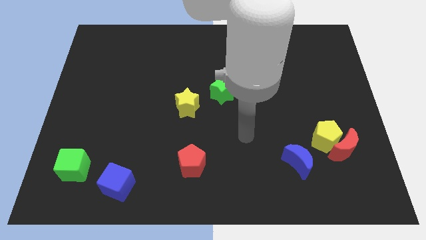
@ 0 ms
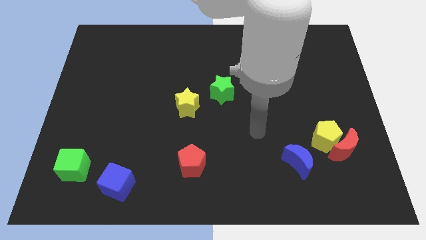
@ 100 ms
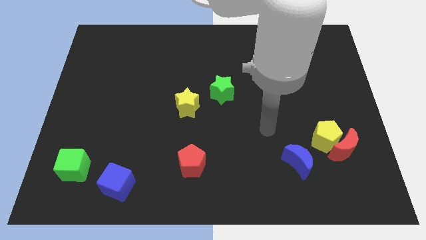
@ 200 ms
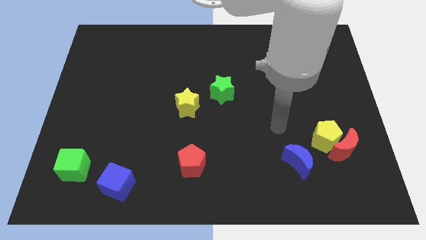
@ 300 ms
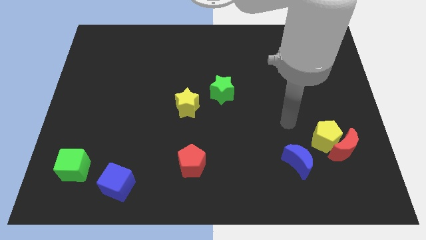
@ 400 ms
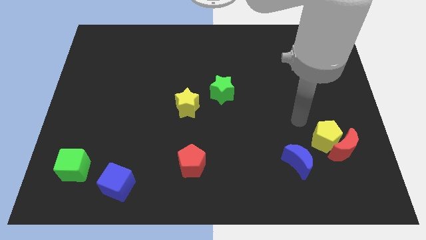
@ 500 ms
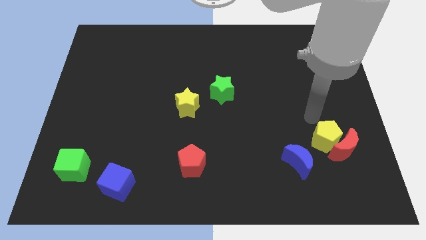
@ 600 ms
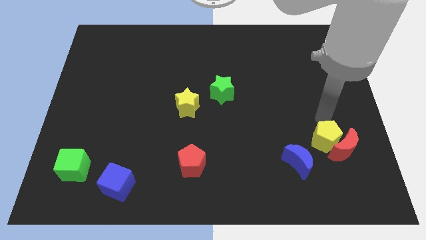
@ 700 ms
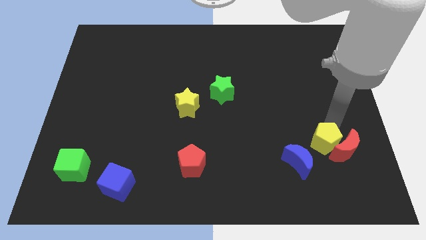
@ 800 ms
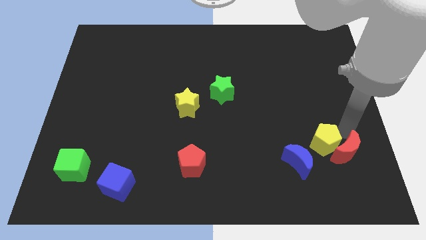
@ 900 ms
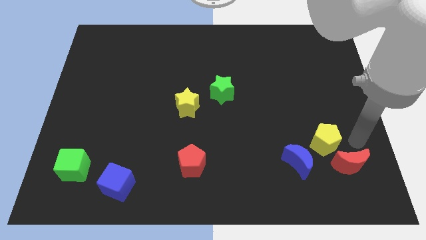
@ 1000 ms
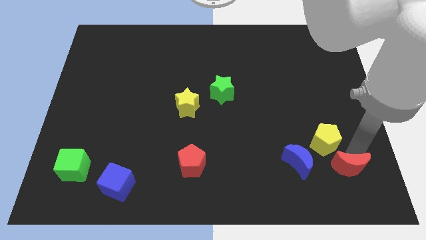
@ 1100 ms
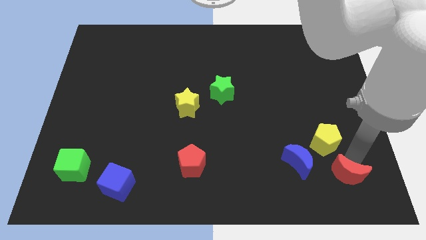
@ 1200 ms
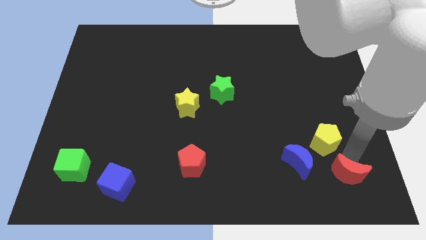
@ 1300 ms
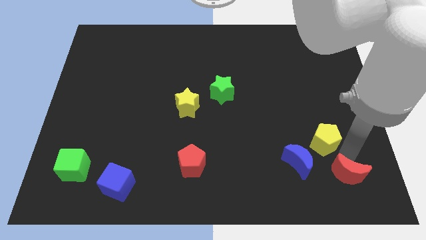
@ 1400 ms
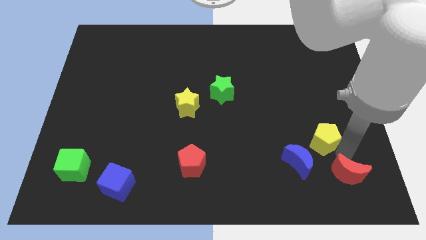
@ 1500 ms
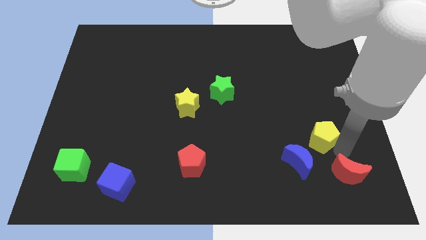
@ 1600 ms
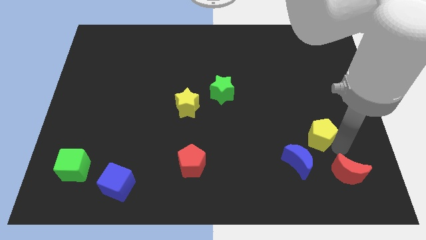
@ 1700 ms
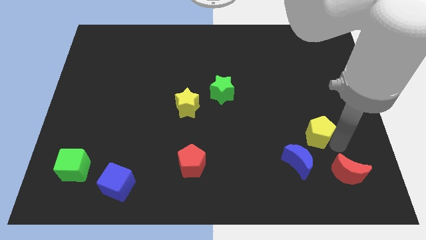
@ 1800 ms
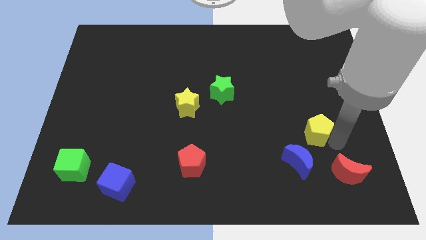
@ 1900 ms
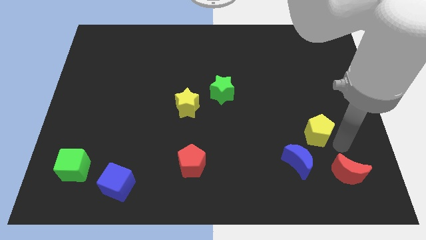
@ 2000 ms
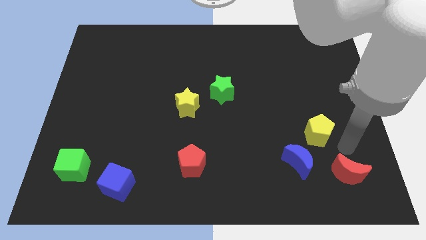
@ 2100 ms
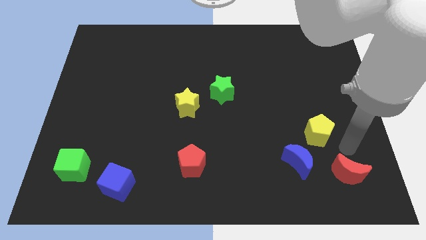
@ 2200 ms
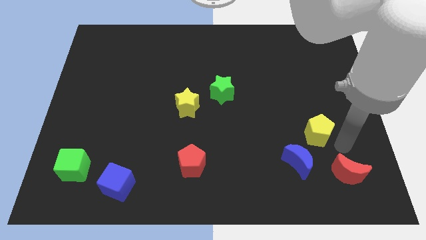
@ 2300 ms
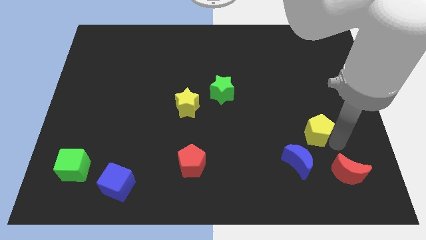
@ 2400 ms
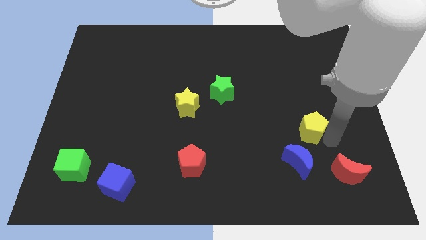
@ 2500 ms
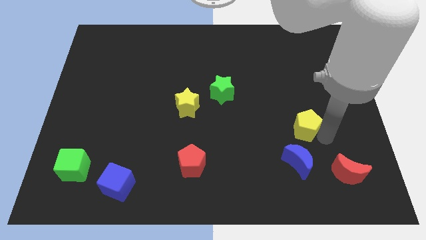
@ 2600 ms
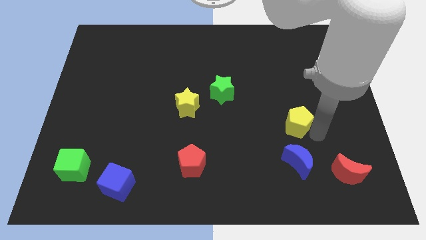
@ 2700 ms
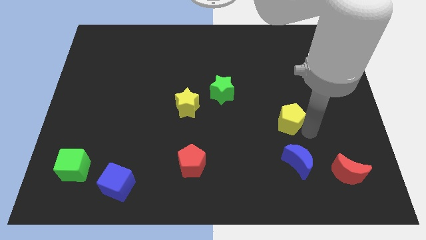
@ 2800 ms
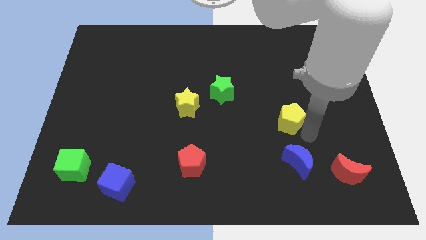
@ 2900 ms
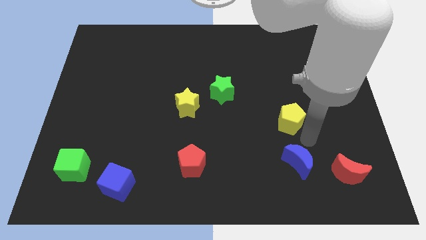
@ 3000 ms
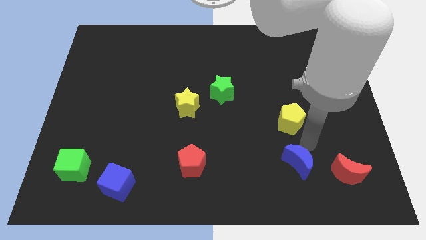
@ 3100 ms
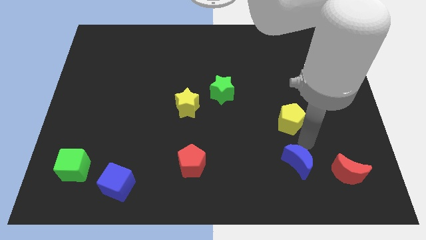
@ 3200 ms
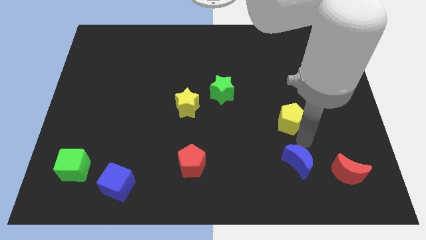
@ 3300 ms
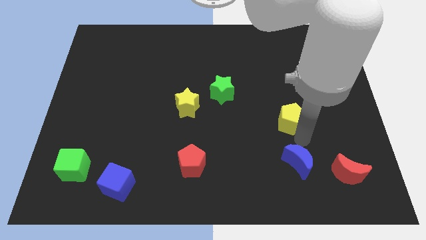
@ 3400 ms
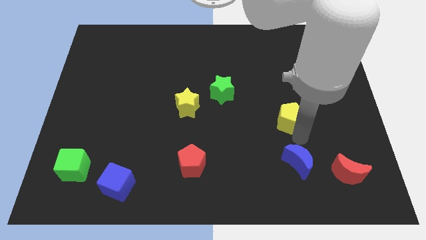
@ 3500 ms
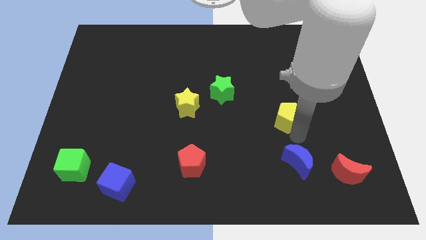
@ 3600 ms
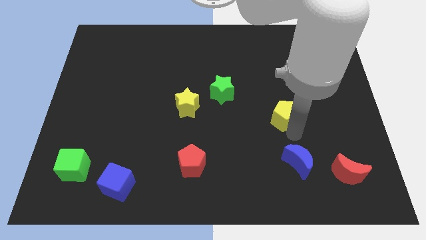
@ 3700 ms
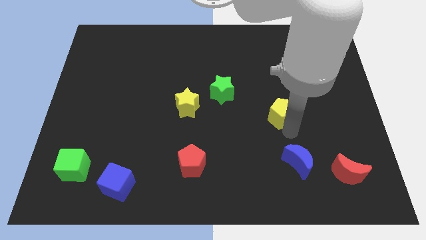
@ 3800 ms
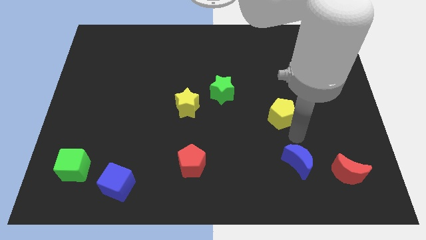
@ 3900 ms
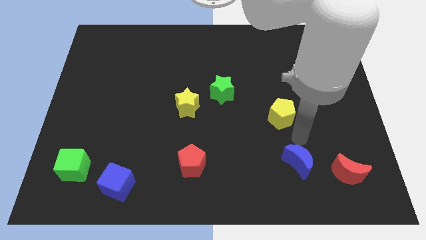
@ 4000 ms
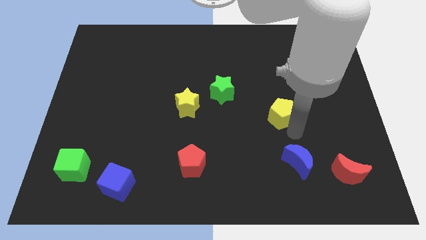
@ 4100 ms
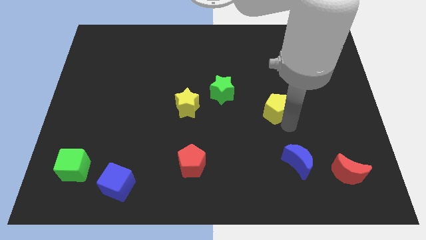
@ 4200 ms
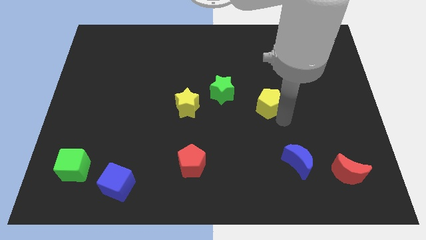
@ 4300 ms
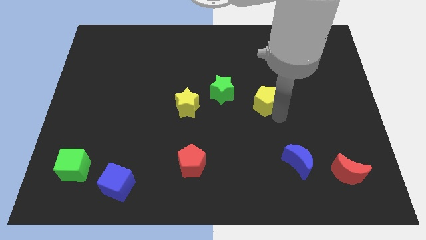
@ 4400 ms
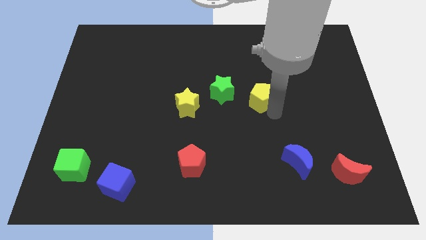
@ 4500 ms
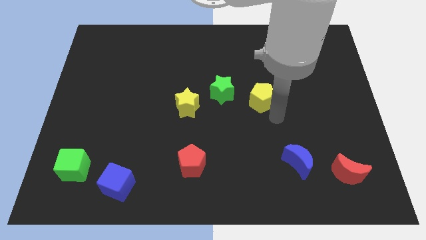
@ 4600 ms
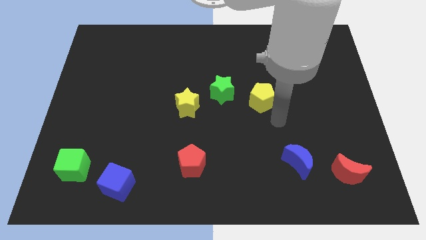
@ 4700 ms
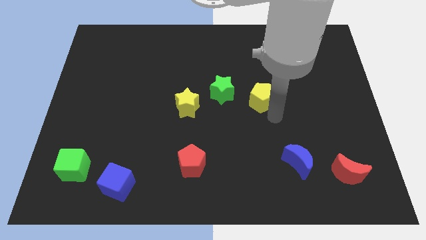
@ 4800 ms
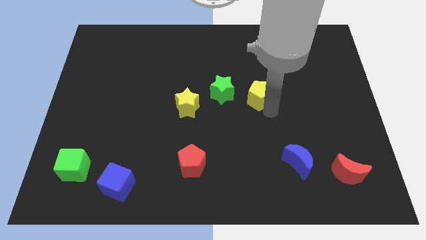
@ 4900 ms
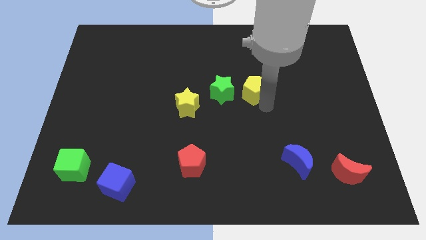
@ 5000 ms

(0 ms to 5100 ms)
slide the yellow pentagon up and left diagonally

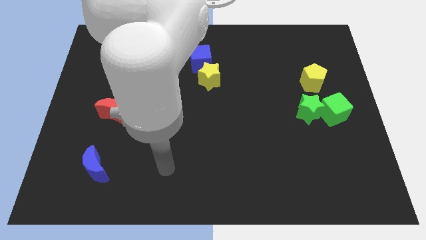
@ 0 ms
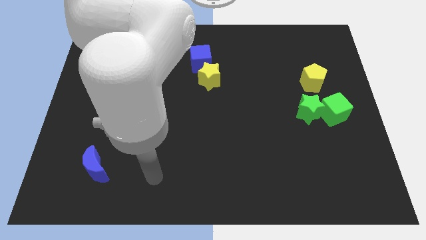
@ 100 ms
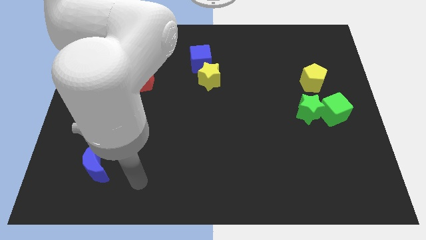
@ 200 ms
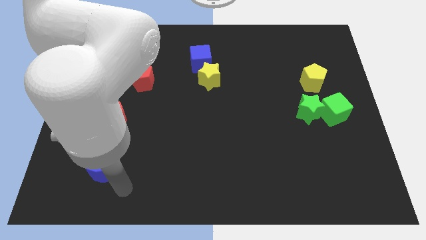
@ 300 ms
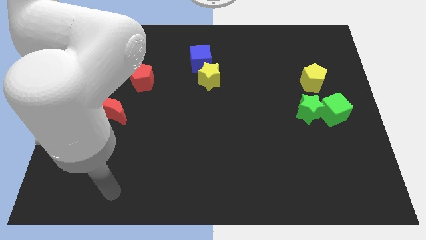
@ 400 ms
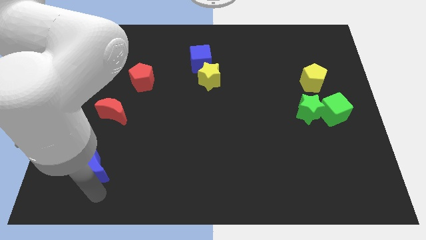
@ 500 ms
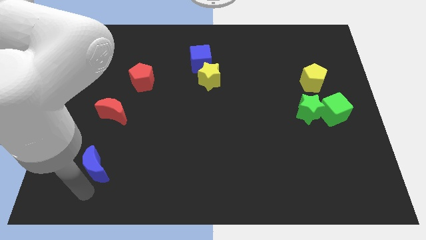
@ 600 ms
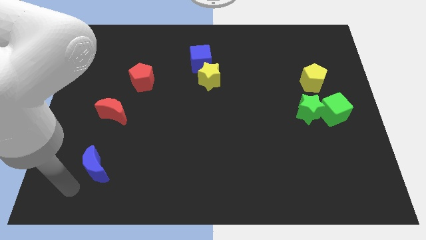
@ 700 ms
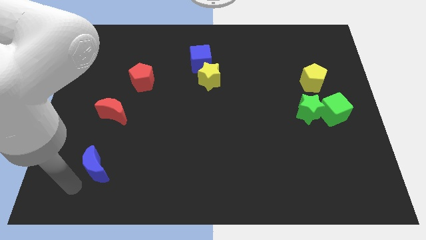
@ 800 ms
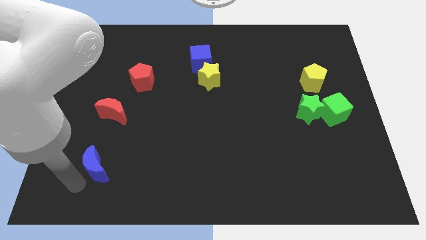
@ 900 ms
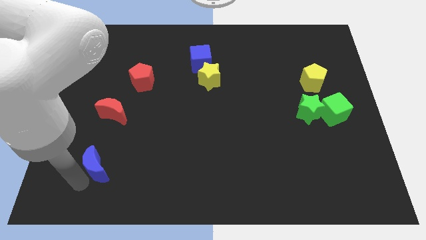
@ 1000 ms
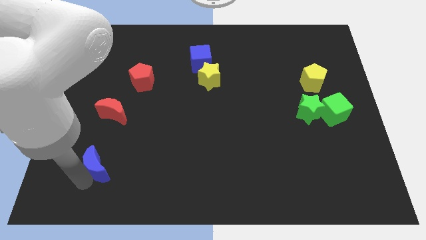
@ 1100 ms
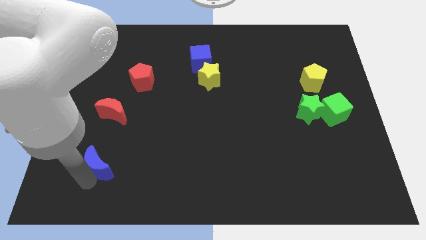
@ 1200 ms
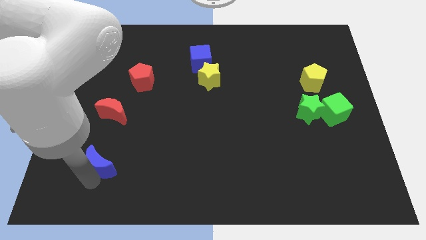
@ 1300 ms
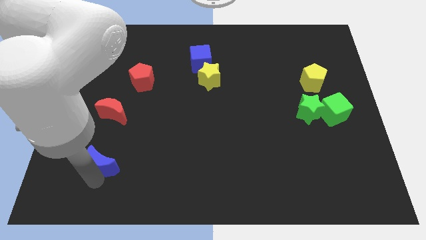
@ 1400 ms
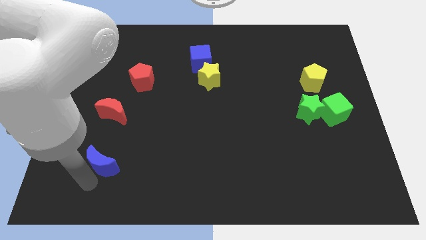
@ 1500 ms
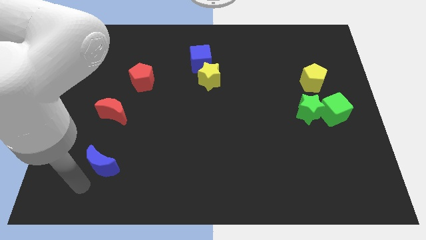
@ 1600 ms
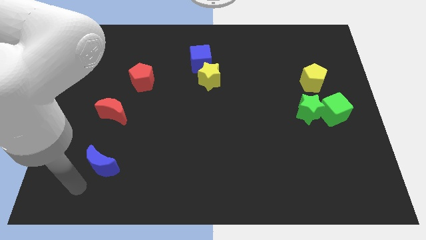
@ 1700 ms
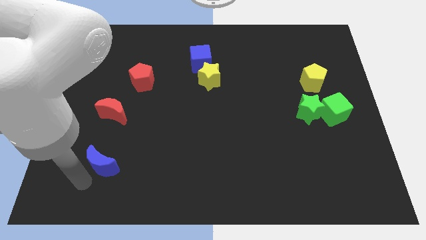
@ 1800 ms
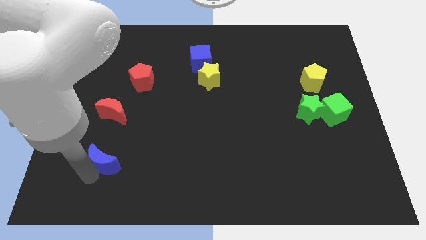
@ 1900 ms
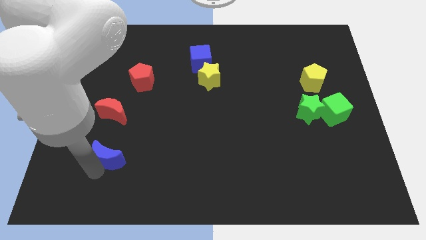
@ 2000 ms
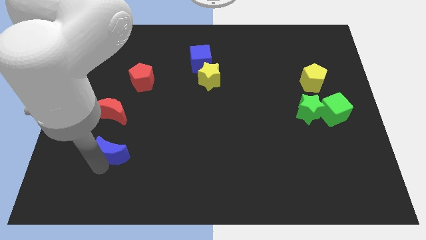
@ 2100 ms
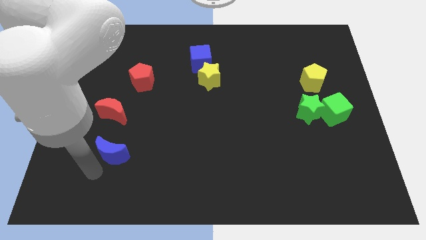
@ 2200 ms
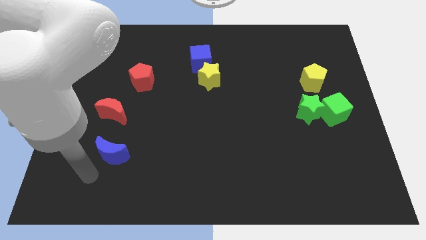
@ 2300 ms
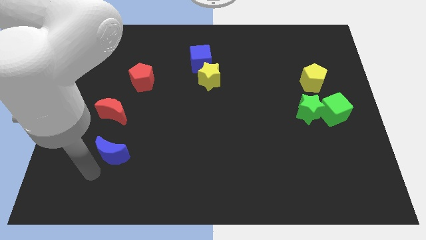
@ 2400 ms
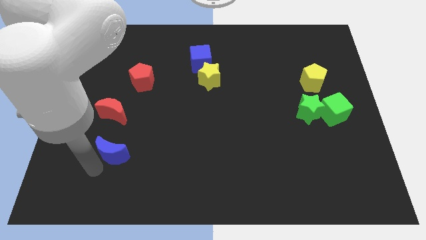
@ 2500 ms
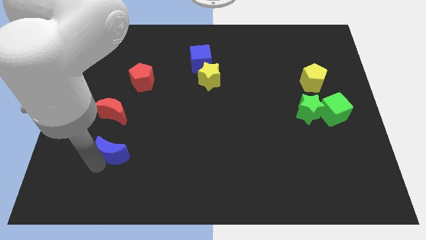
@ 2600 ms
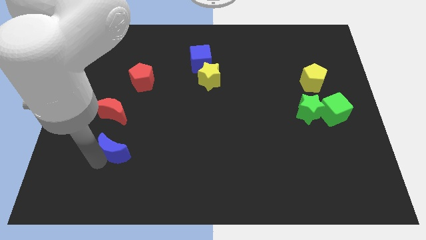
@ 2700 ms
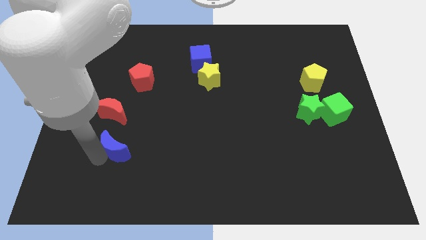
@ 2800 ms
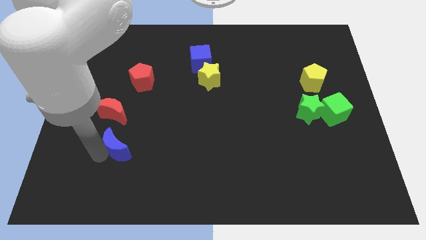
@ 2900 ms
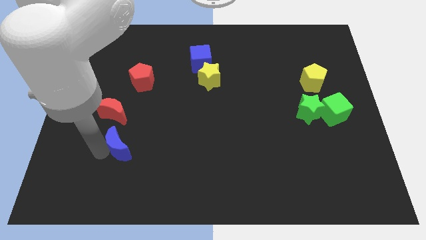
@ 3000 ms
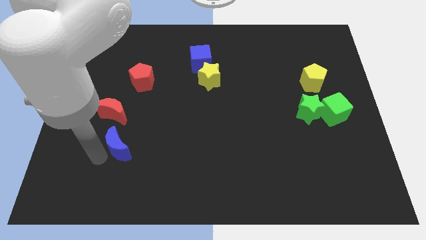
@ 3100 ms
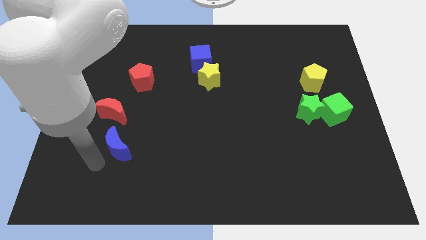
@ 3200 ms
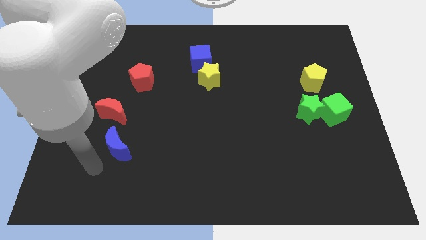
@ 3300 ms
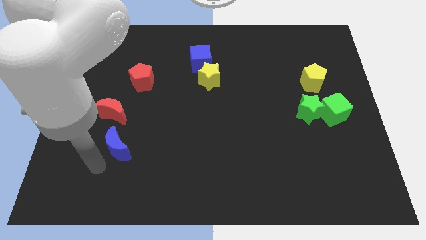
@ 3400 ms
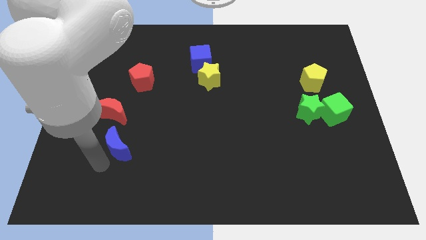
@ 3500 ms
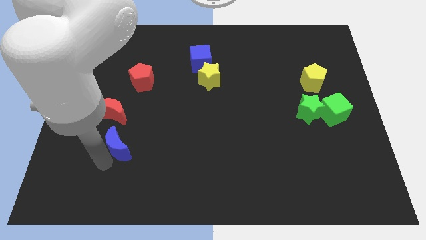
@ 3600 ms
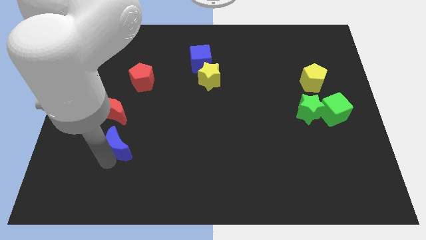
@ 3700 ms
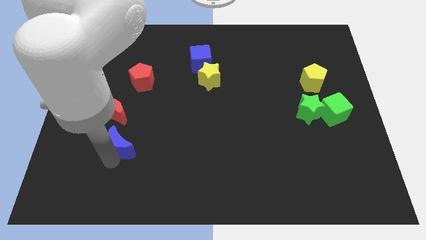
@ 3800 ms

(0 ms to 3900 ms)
slide the blue moon a little bit up and right
